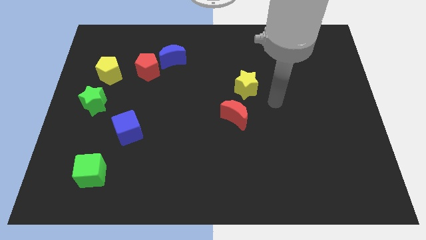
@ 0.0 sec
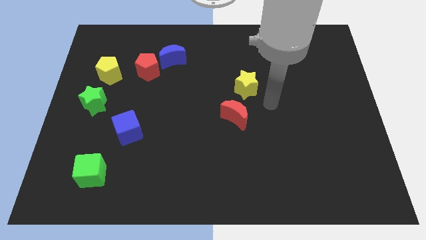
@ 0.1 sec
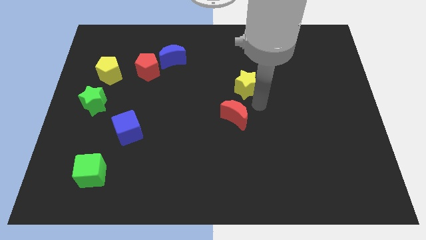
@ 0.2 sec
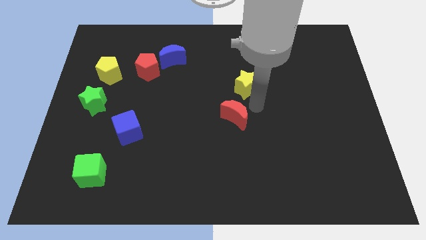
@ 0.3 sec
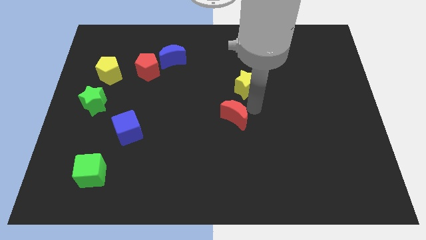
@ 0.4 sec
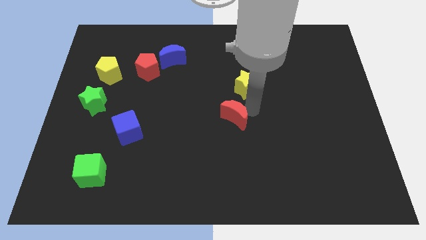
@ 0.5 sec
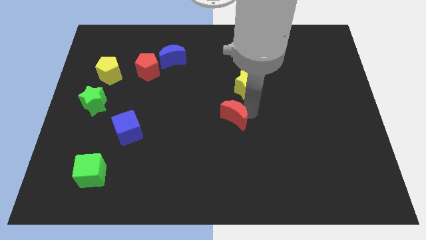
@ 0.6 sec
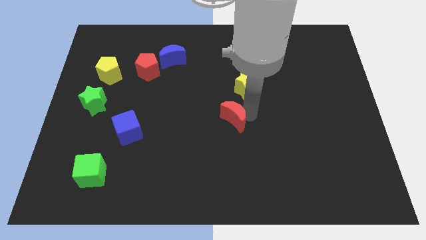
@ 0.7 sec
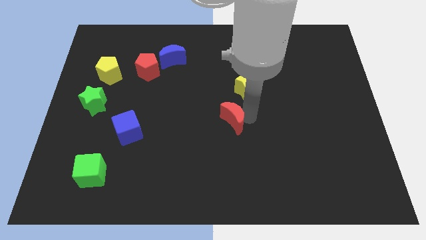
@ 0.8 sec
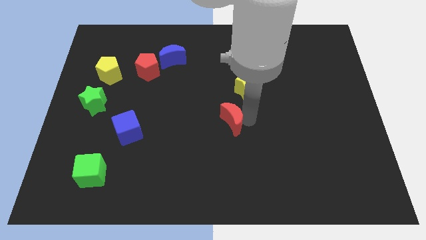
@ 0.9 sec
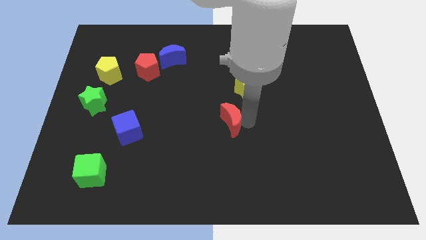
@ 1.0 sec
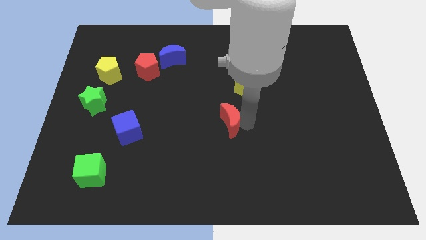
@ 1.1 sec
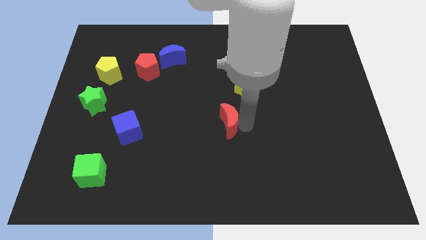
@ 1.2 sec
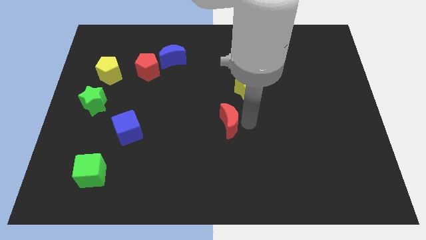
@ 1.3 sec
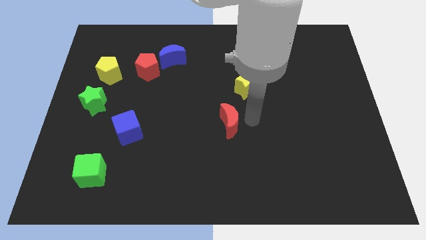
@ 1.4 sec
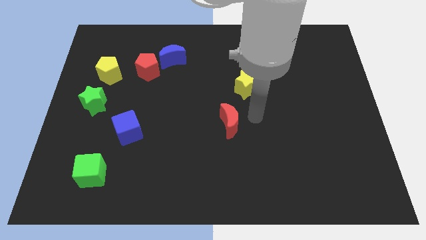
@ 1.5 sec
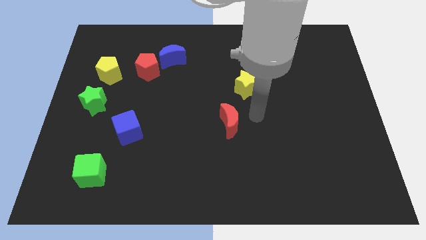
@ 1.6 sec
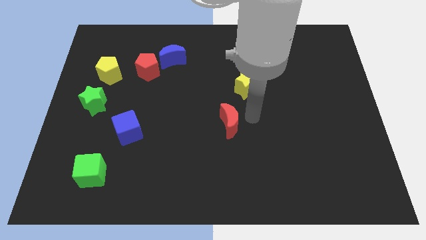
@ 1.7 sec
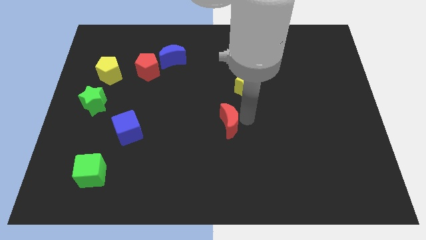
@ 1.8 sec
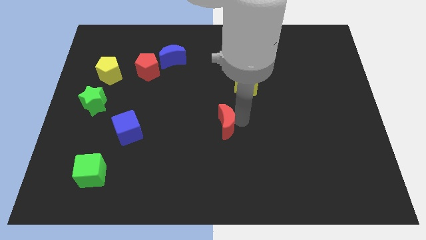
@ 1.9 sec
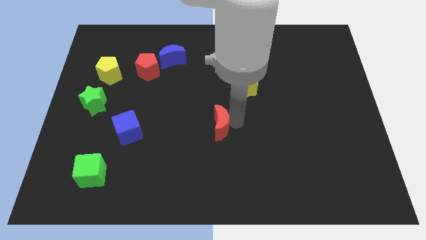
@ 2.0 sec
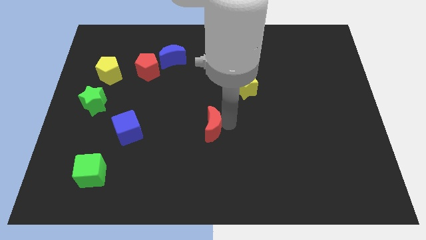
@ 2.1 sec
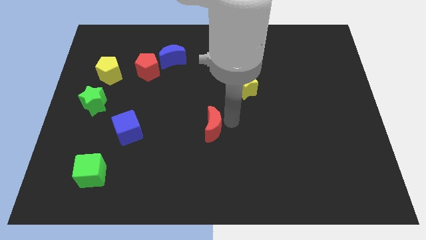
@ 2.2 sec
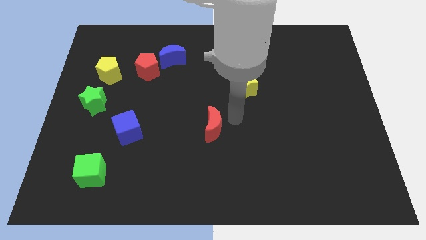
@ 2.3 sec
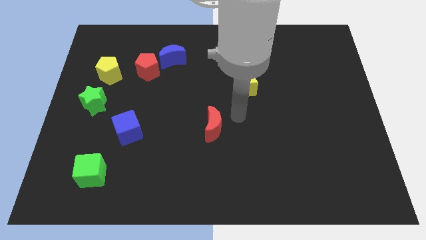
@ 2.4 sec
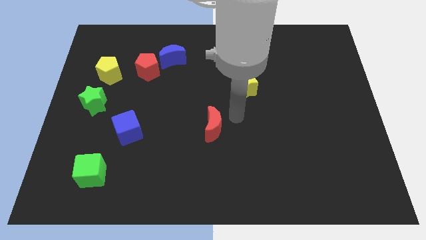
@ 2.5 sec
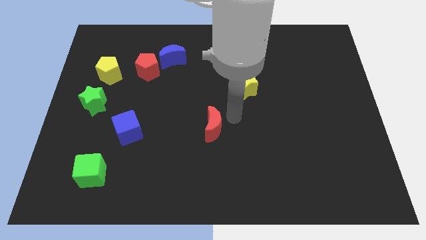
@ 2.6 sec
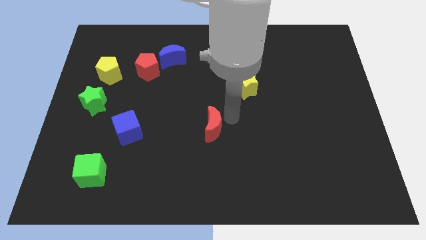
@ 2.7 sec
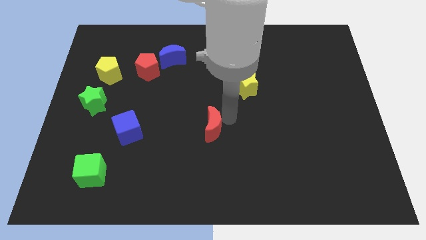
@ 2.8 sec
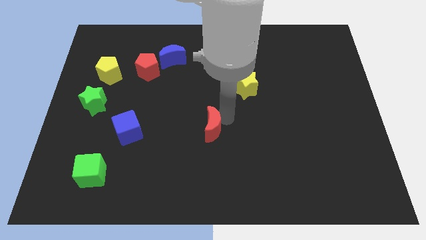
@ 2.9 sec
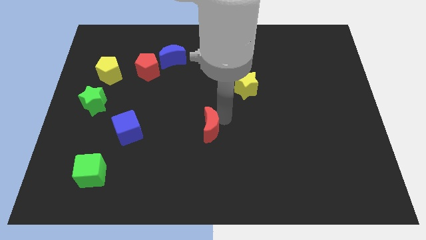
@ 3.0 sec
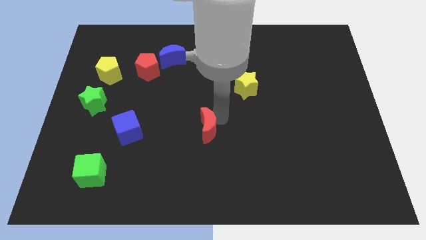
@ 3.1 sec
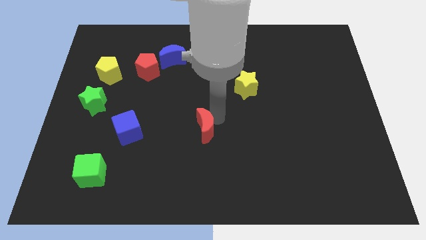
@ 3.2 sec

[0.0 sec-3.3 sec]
slightly move the red moon downwards and then left

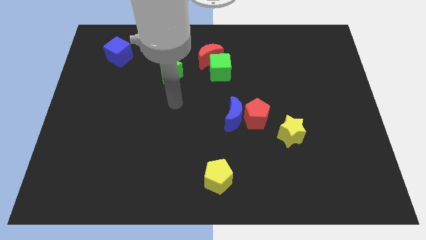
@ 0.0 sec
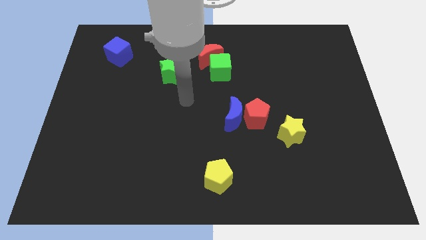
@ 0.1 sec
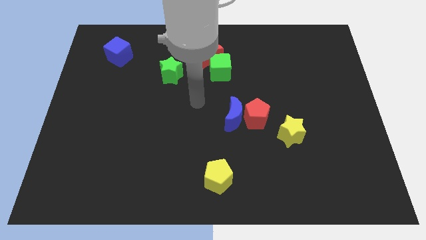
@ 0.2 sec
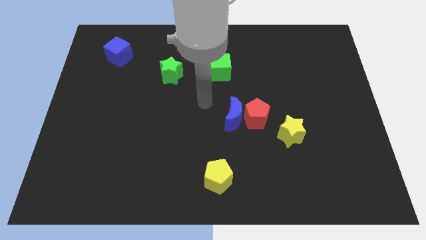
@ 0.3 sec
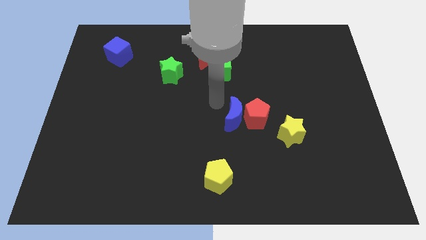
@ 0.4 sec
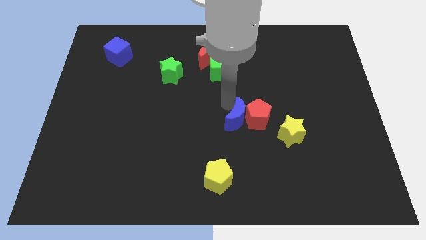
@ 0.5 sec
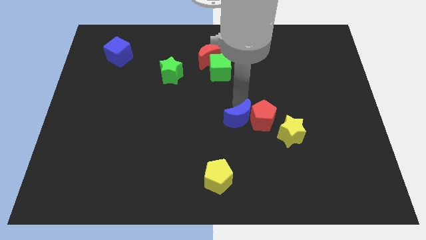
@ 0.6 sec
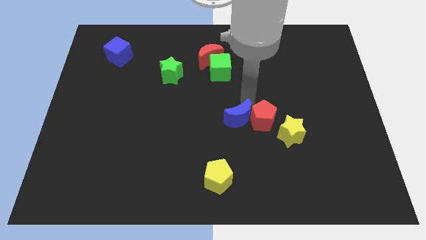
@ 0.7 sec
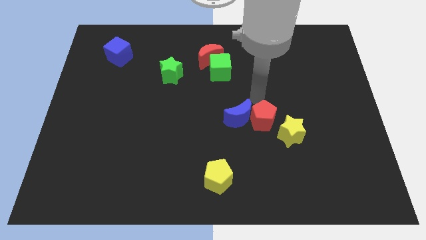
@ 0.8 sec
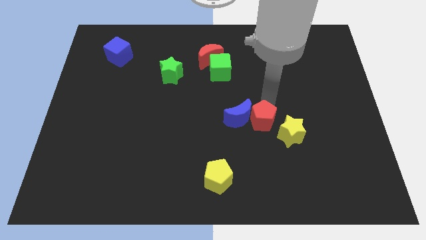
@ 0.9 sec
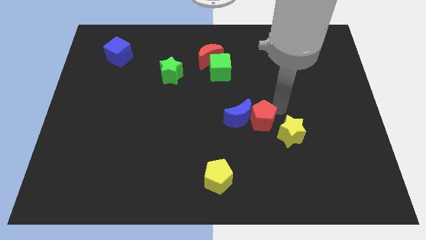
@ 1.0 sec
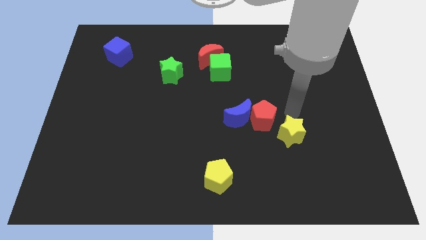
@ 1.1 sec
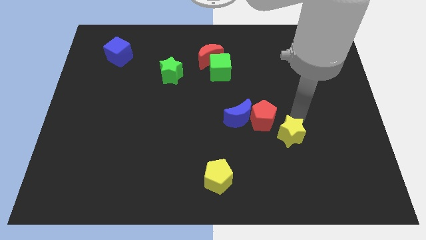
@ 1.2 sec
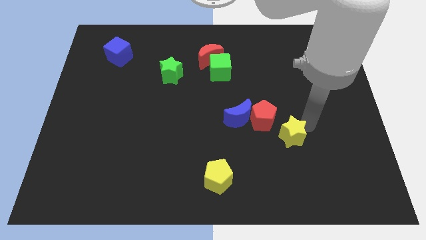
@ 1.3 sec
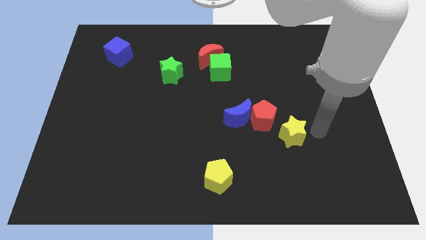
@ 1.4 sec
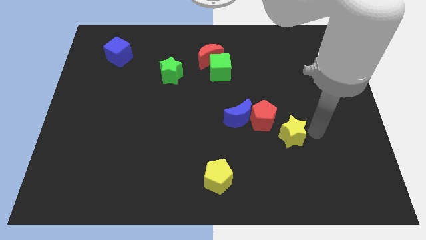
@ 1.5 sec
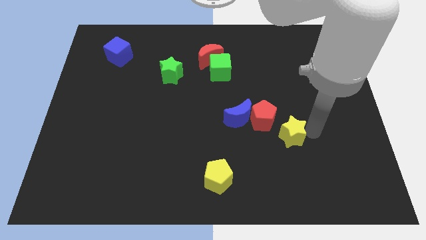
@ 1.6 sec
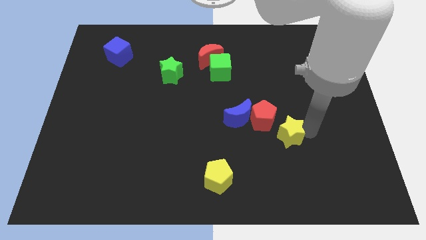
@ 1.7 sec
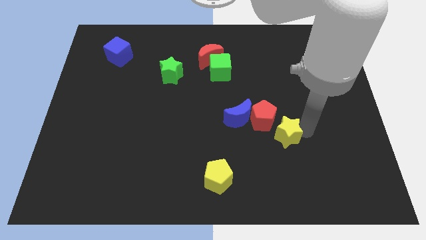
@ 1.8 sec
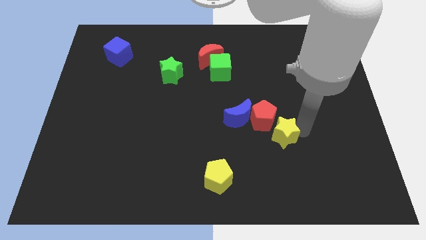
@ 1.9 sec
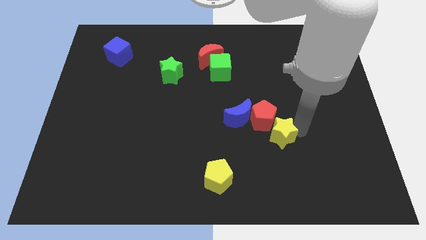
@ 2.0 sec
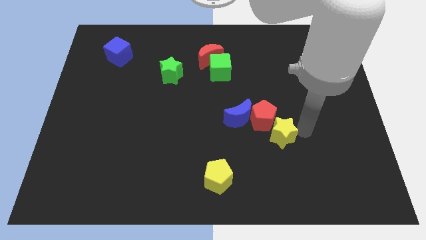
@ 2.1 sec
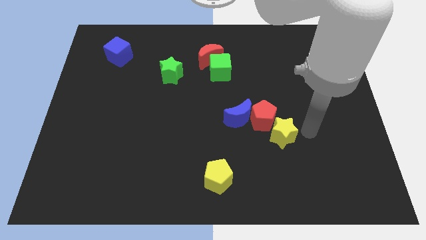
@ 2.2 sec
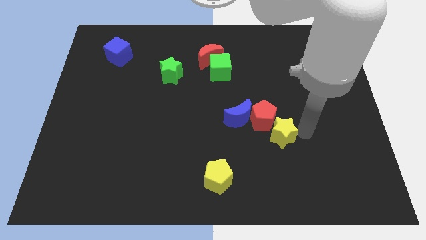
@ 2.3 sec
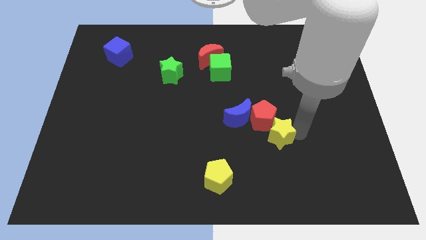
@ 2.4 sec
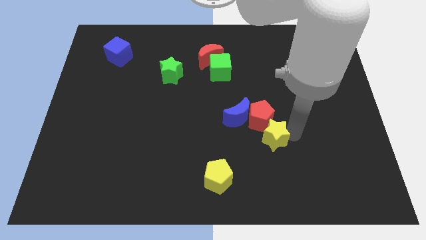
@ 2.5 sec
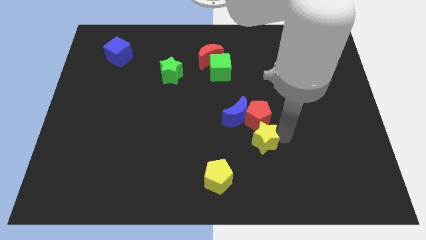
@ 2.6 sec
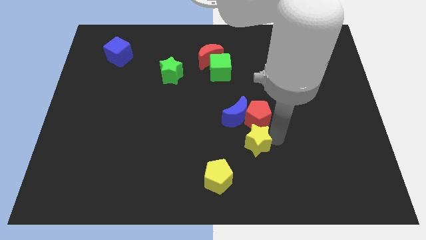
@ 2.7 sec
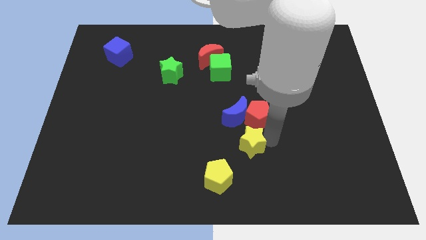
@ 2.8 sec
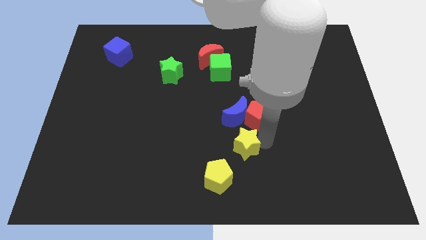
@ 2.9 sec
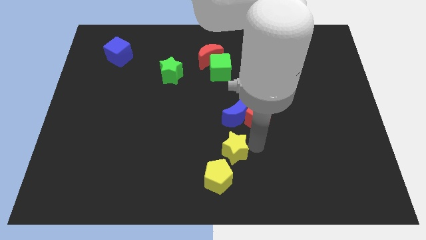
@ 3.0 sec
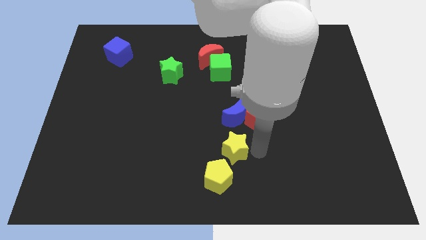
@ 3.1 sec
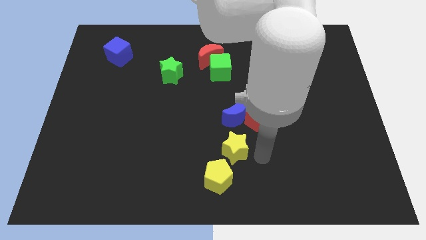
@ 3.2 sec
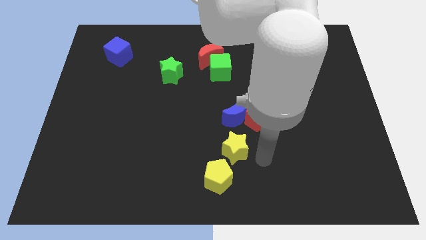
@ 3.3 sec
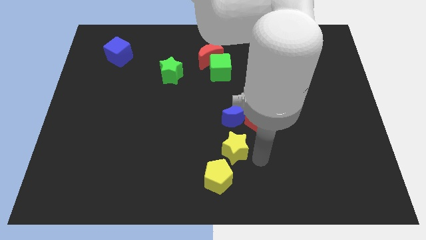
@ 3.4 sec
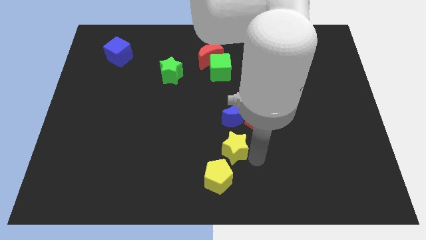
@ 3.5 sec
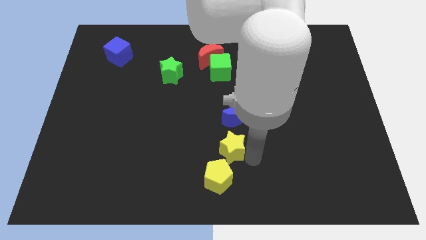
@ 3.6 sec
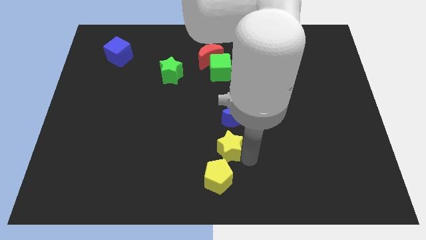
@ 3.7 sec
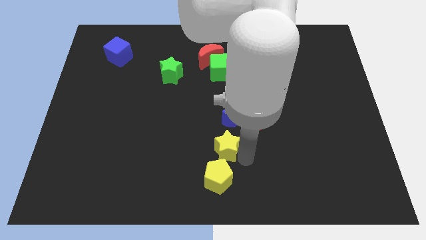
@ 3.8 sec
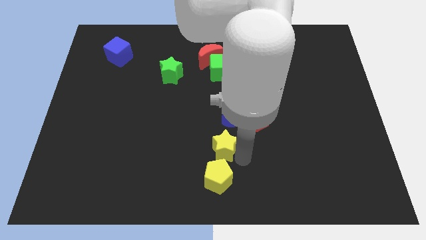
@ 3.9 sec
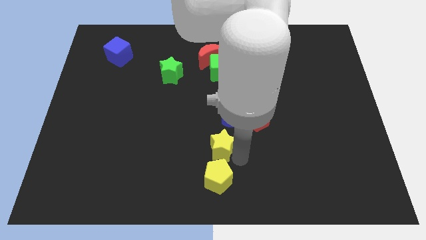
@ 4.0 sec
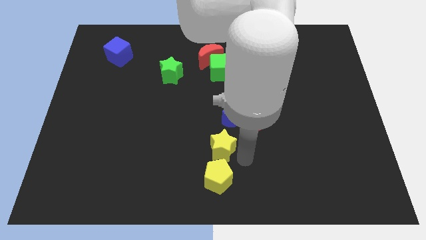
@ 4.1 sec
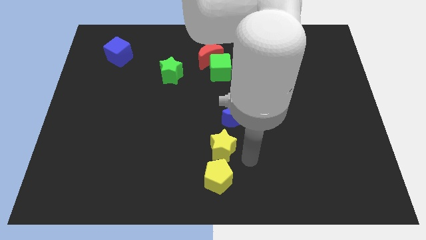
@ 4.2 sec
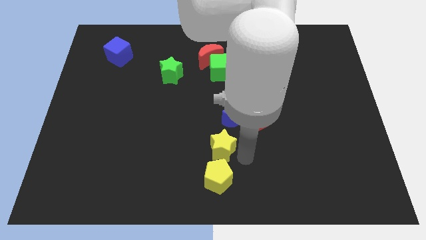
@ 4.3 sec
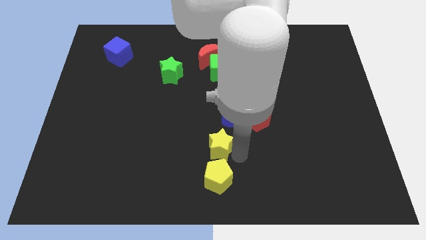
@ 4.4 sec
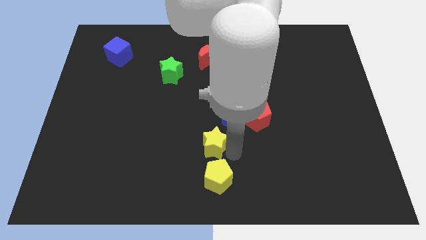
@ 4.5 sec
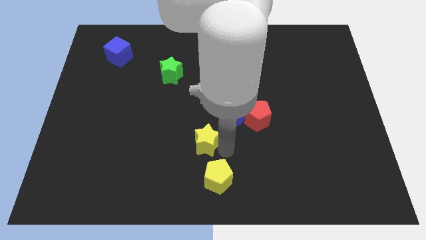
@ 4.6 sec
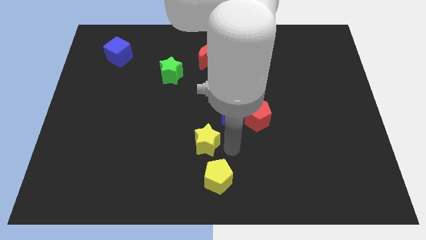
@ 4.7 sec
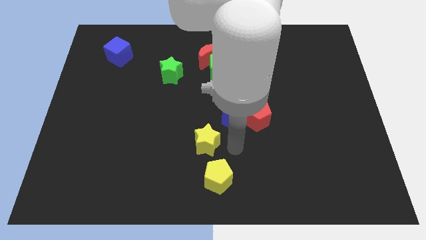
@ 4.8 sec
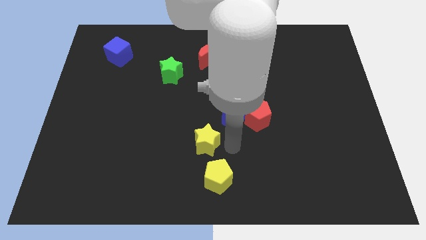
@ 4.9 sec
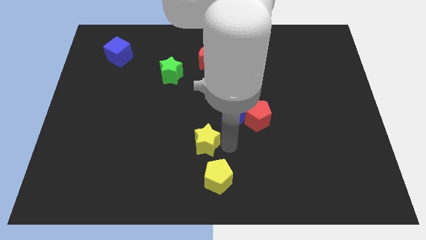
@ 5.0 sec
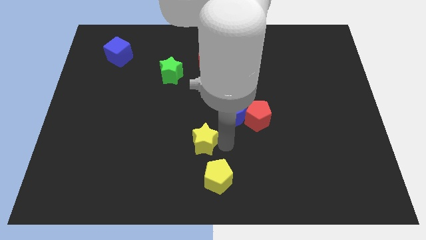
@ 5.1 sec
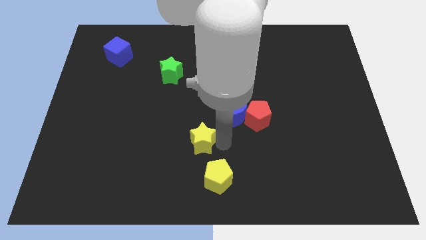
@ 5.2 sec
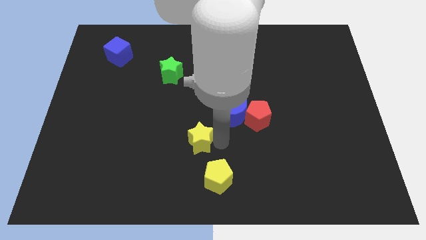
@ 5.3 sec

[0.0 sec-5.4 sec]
slide the yellow star left
